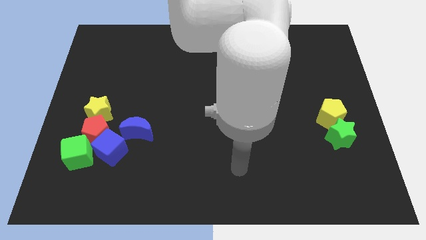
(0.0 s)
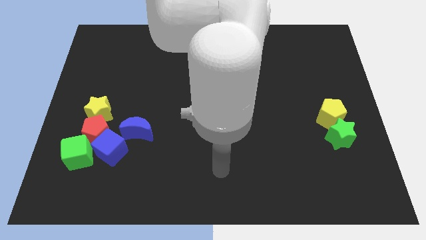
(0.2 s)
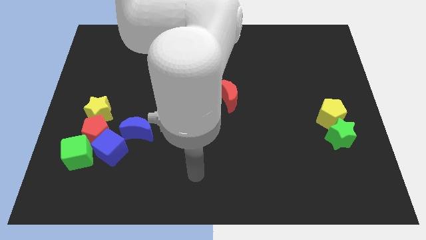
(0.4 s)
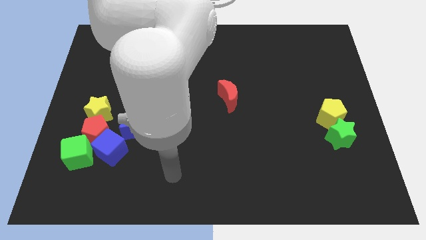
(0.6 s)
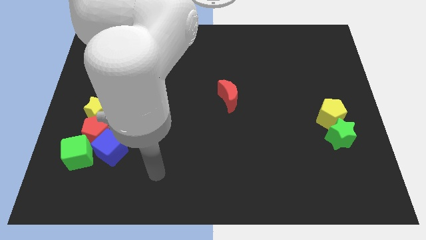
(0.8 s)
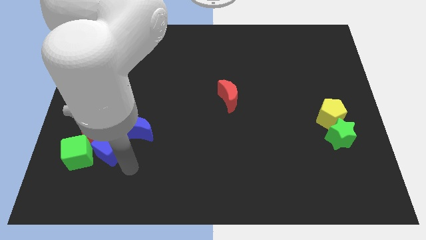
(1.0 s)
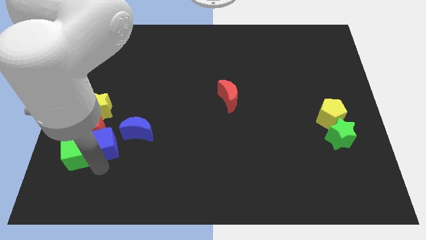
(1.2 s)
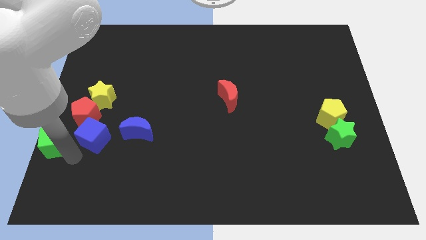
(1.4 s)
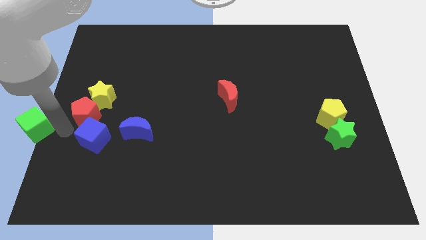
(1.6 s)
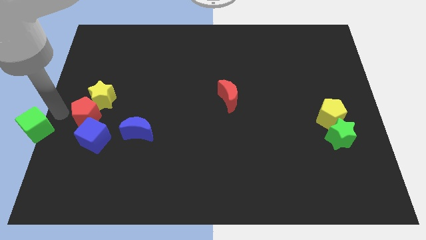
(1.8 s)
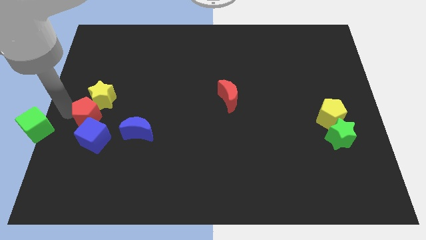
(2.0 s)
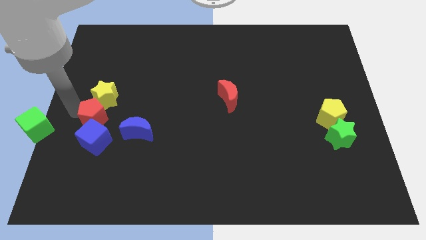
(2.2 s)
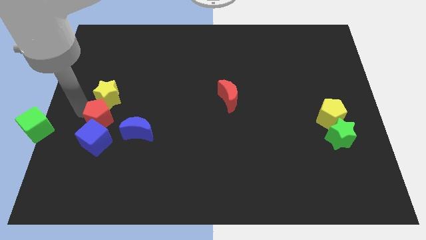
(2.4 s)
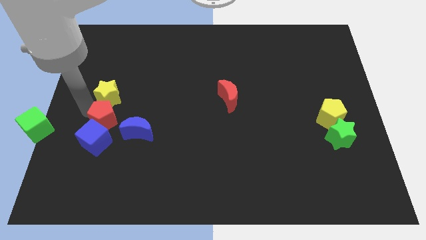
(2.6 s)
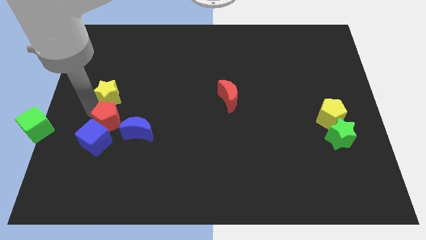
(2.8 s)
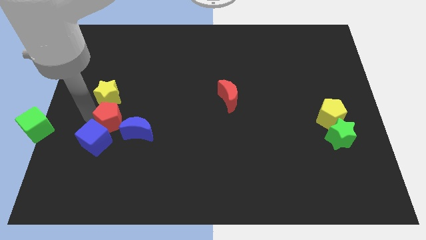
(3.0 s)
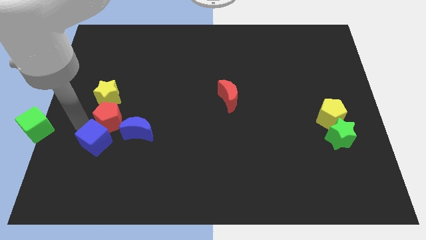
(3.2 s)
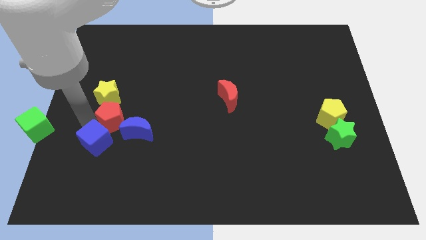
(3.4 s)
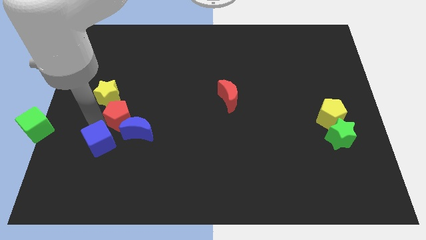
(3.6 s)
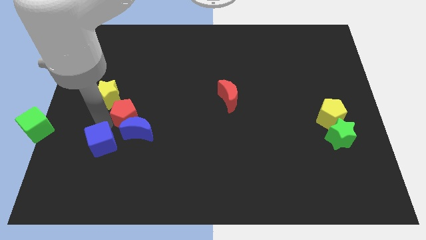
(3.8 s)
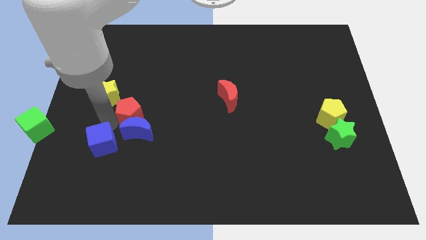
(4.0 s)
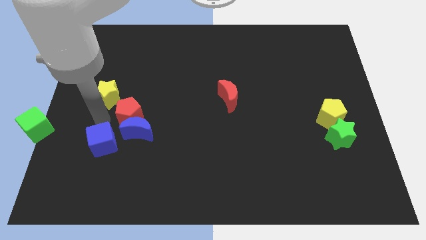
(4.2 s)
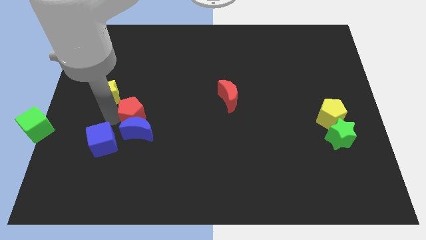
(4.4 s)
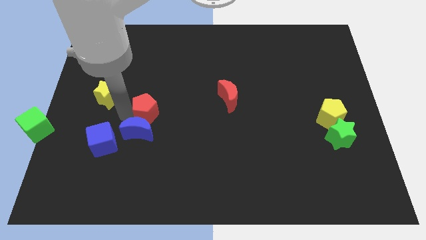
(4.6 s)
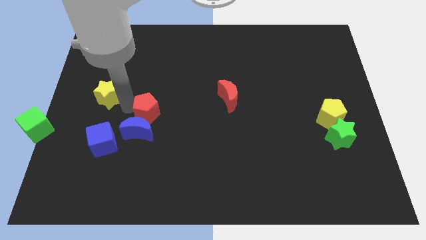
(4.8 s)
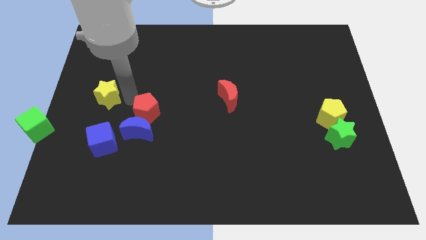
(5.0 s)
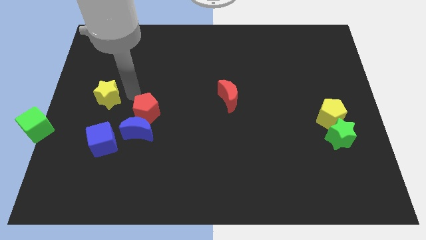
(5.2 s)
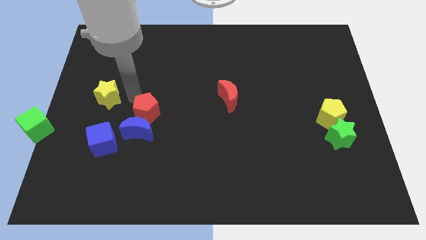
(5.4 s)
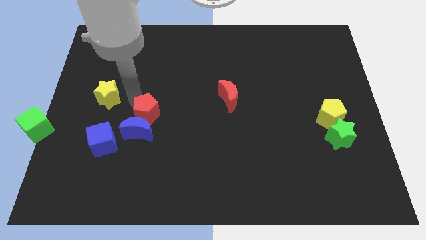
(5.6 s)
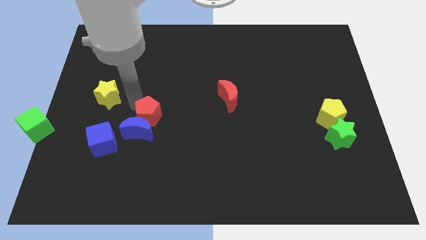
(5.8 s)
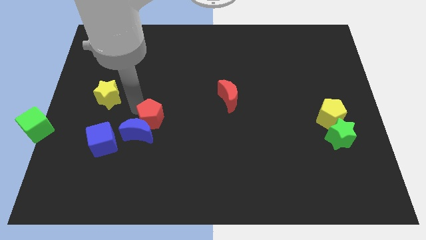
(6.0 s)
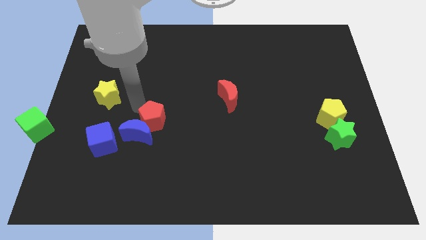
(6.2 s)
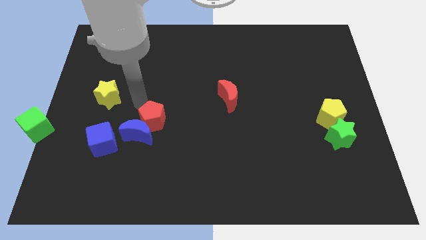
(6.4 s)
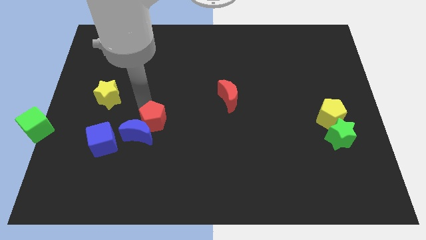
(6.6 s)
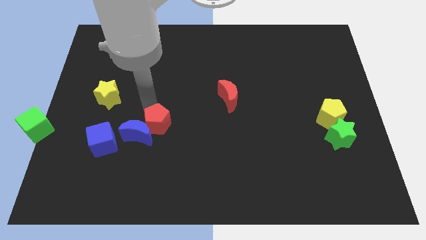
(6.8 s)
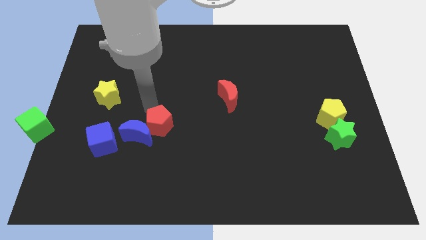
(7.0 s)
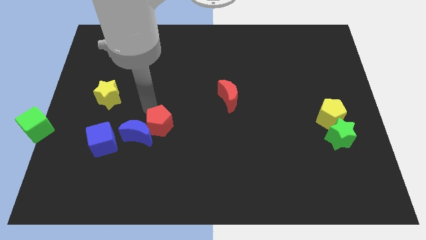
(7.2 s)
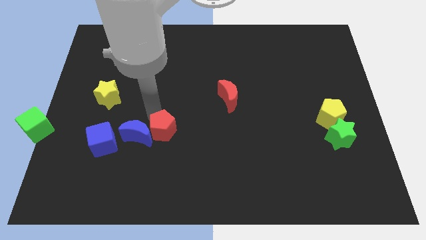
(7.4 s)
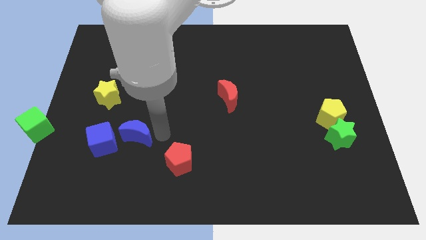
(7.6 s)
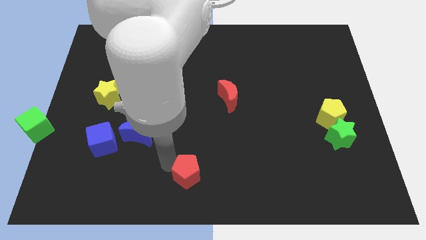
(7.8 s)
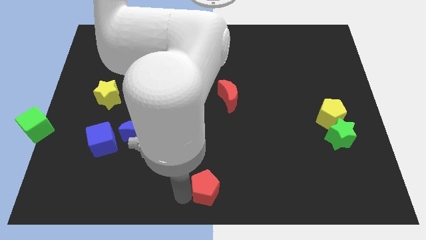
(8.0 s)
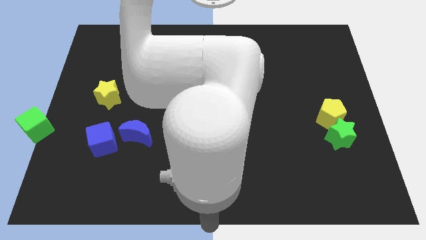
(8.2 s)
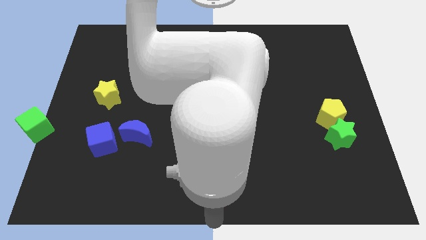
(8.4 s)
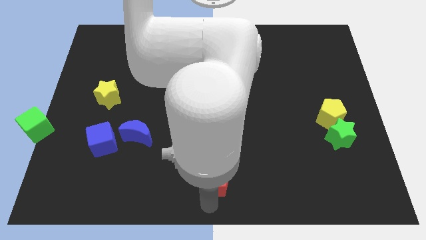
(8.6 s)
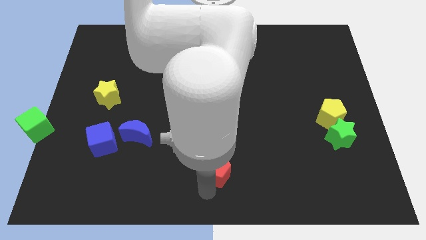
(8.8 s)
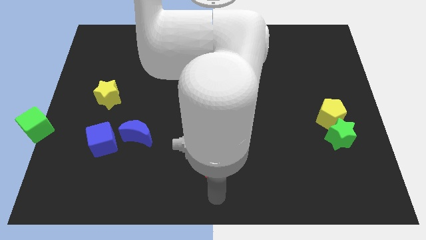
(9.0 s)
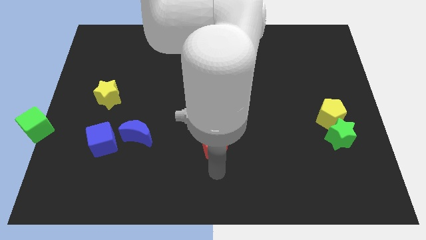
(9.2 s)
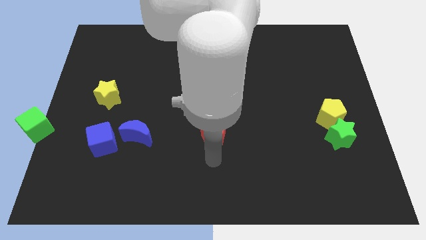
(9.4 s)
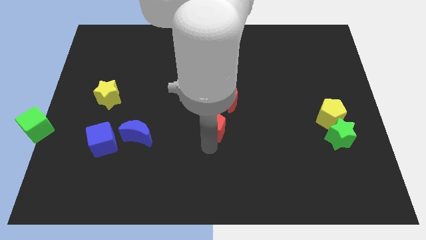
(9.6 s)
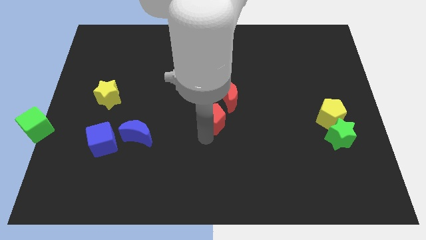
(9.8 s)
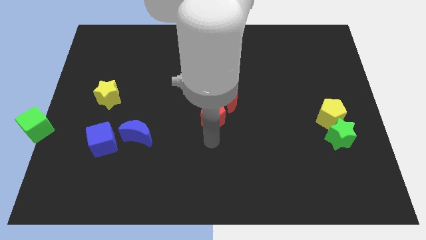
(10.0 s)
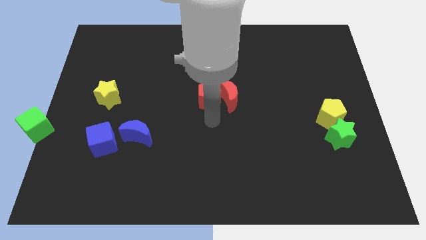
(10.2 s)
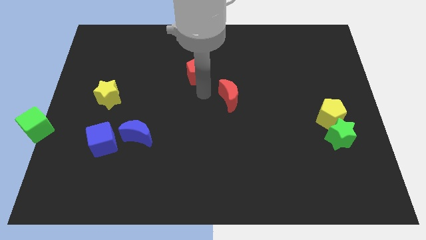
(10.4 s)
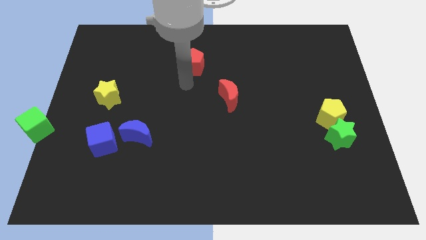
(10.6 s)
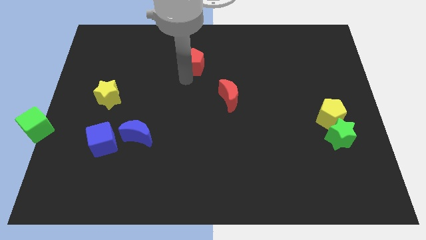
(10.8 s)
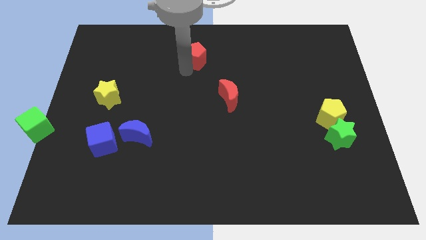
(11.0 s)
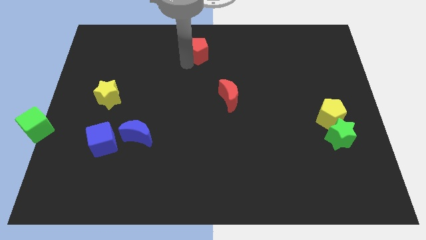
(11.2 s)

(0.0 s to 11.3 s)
put the red pentagon to the towards your base
